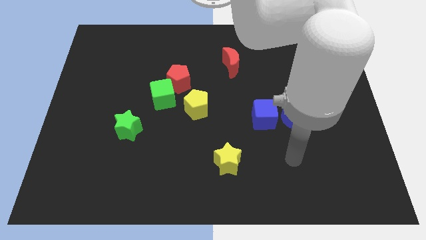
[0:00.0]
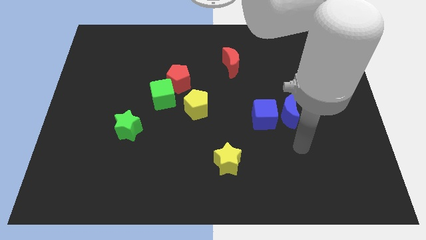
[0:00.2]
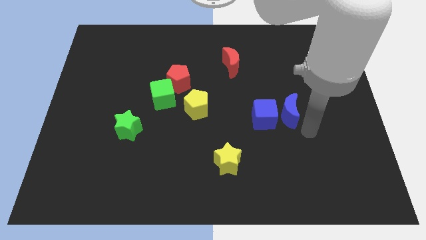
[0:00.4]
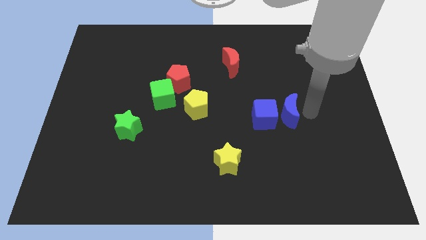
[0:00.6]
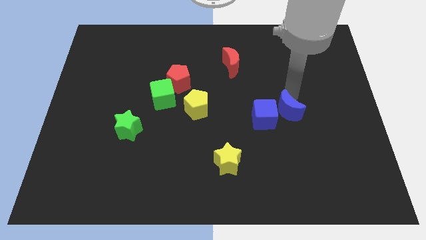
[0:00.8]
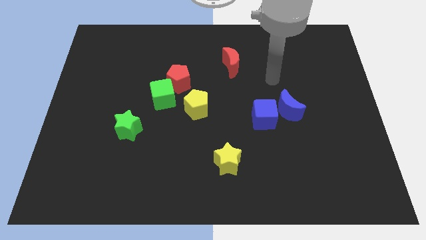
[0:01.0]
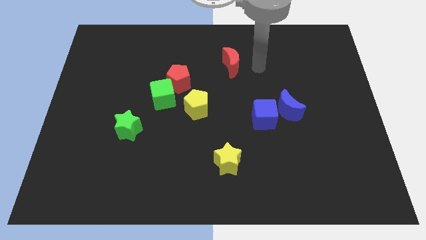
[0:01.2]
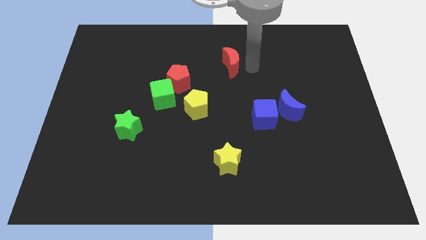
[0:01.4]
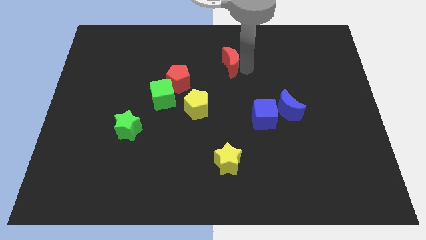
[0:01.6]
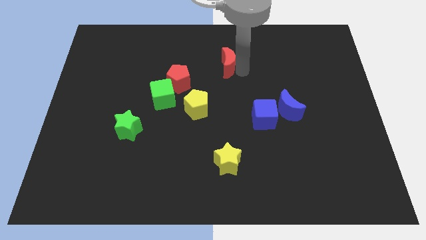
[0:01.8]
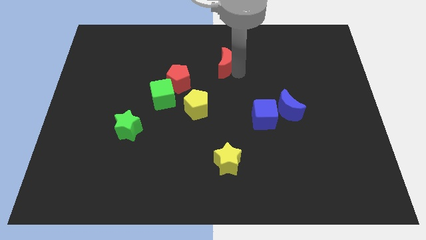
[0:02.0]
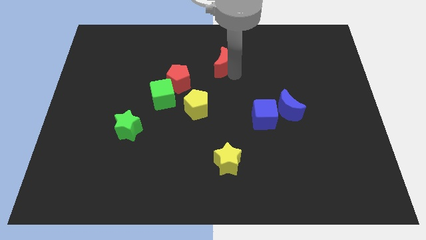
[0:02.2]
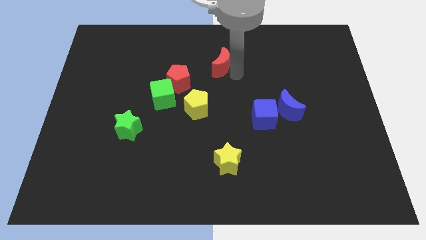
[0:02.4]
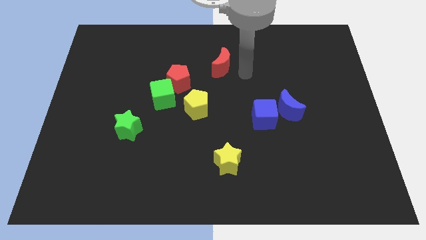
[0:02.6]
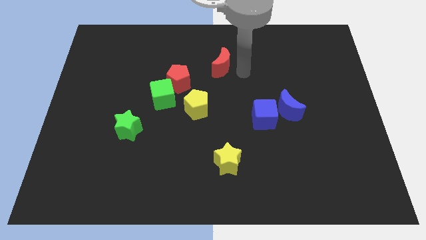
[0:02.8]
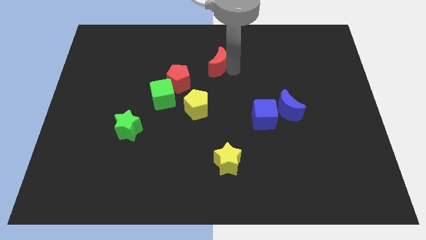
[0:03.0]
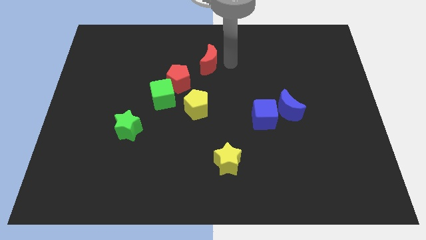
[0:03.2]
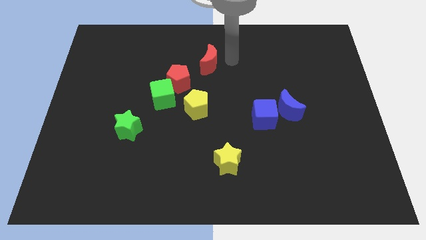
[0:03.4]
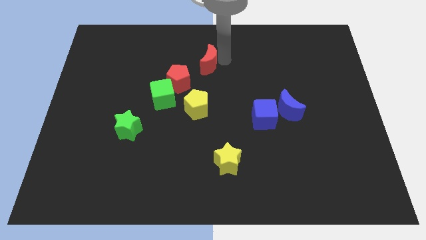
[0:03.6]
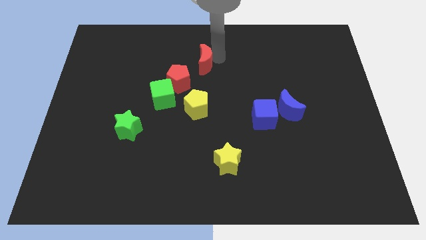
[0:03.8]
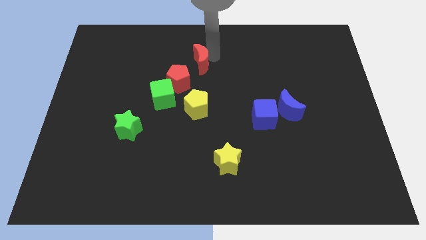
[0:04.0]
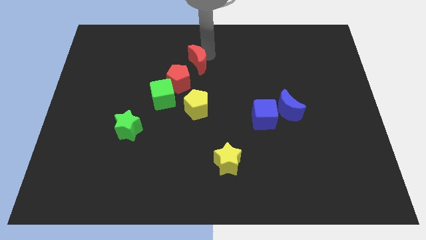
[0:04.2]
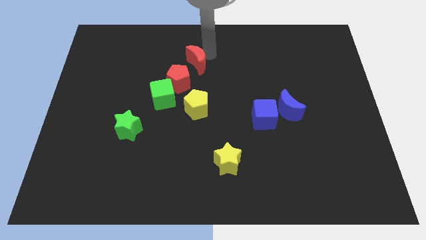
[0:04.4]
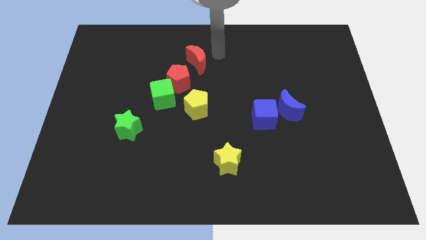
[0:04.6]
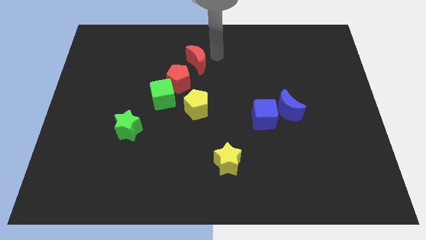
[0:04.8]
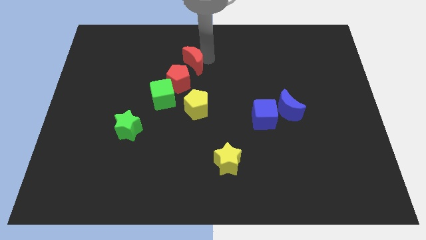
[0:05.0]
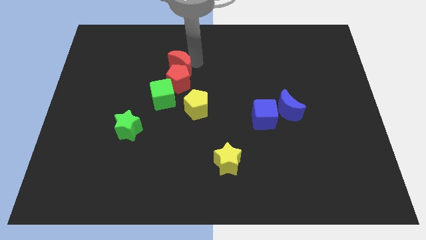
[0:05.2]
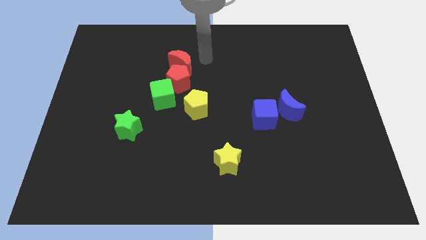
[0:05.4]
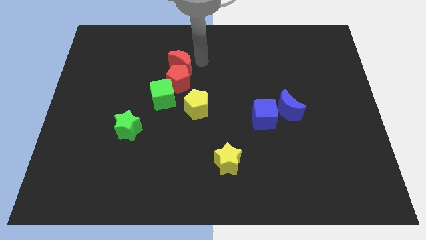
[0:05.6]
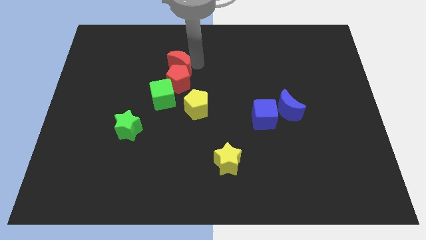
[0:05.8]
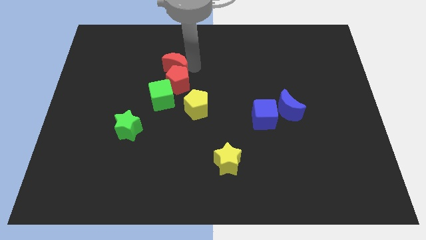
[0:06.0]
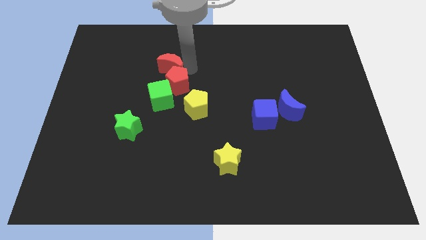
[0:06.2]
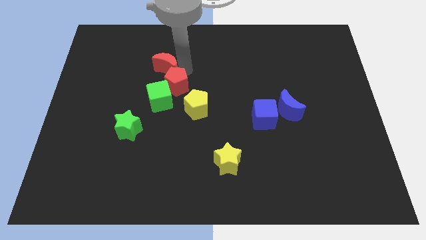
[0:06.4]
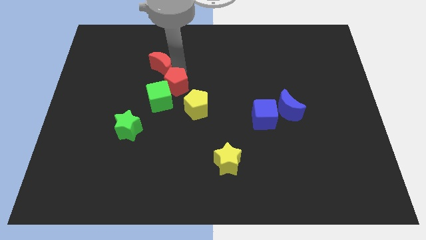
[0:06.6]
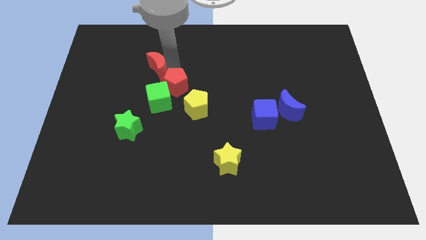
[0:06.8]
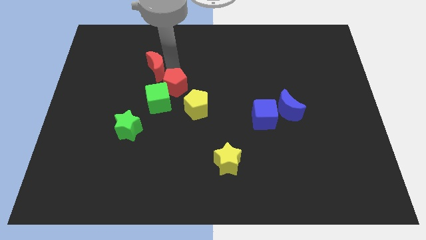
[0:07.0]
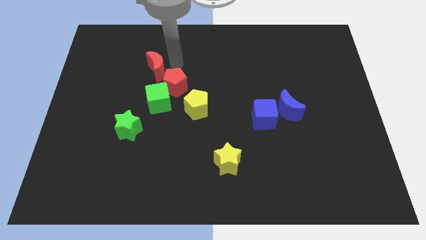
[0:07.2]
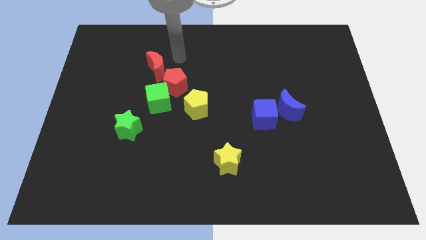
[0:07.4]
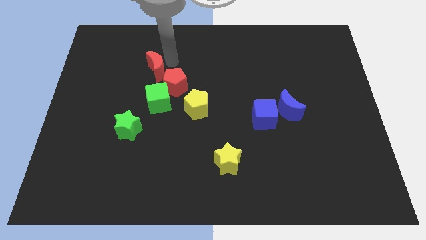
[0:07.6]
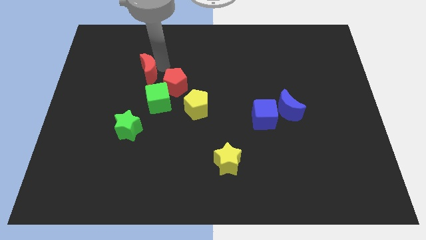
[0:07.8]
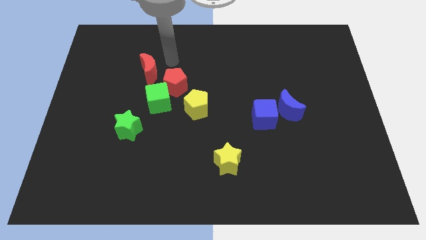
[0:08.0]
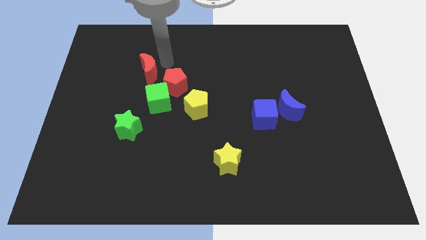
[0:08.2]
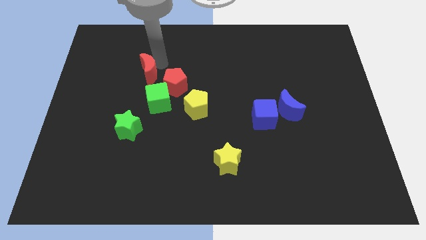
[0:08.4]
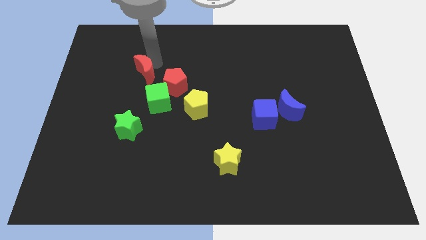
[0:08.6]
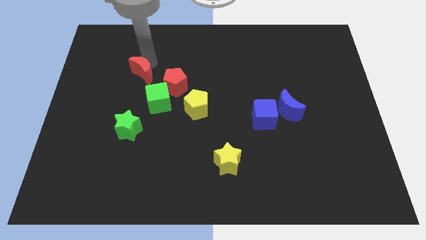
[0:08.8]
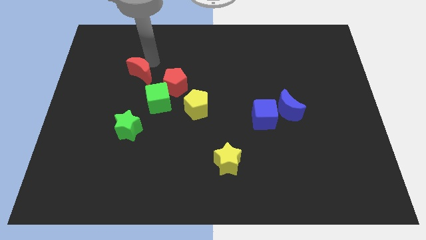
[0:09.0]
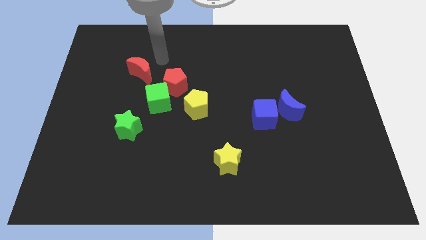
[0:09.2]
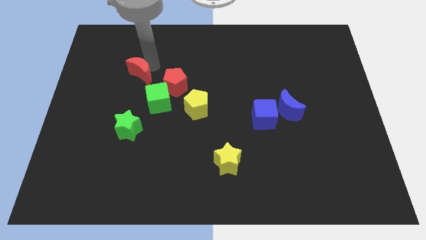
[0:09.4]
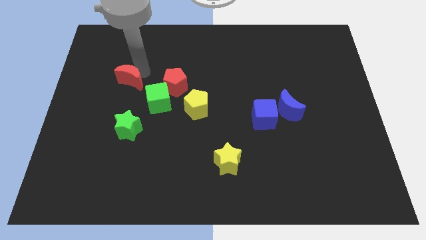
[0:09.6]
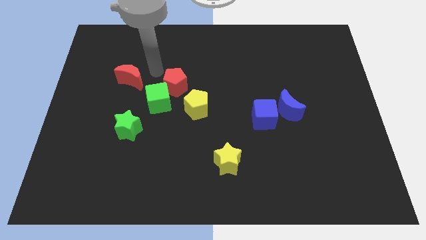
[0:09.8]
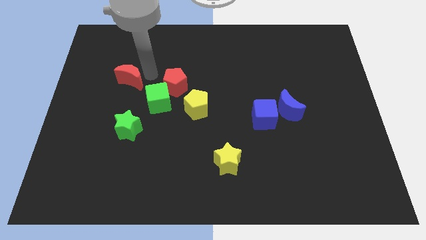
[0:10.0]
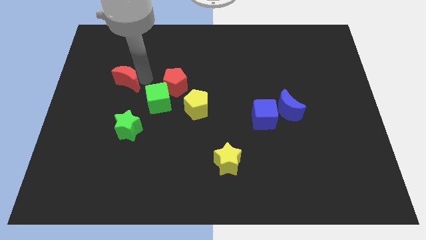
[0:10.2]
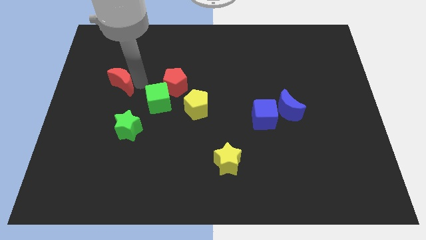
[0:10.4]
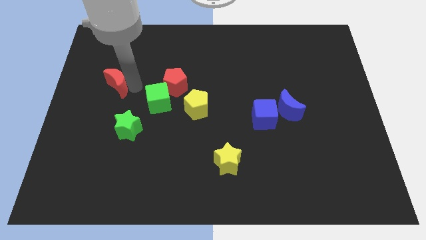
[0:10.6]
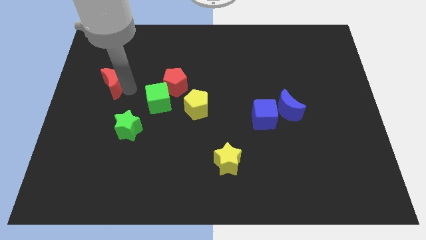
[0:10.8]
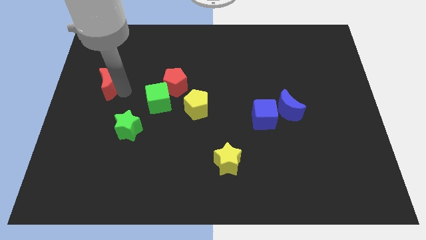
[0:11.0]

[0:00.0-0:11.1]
slide the red moon to the left side
